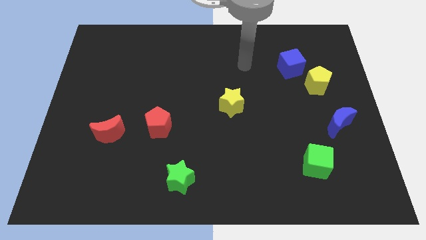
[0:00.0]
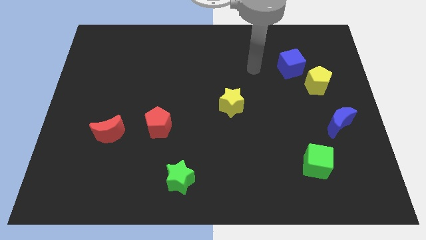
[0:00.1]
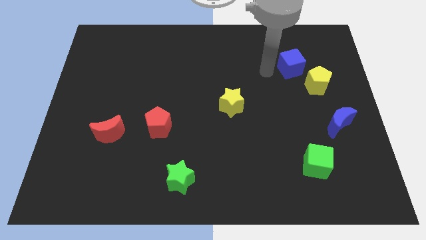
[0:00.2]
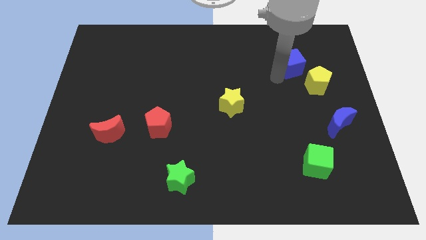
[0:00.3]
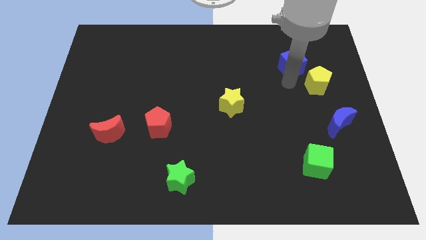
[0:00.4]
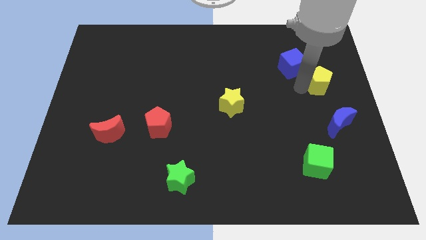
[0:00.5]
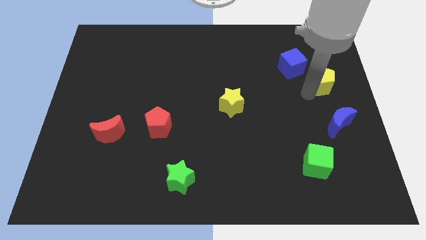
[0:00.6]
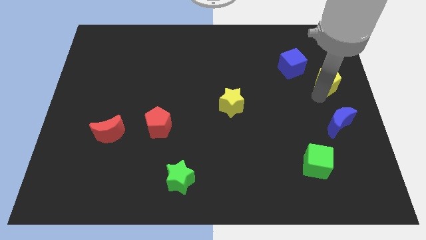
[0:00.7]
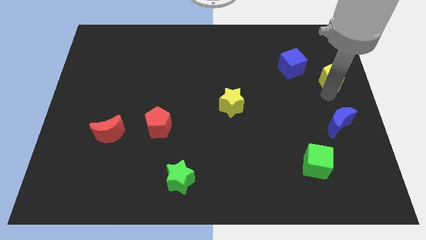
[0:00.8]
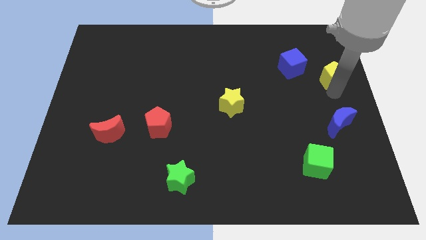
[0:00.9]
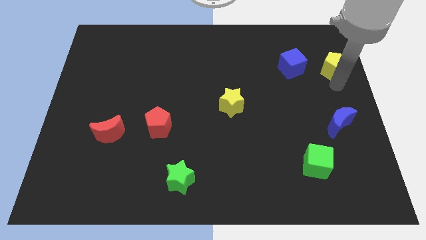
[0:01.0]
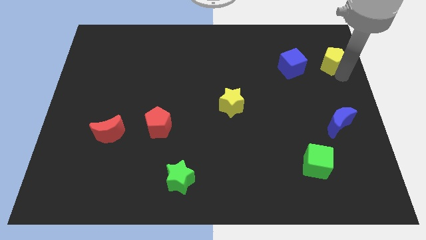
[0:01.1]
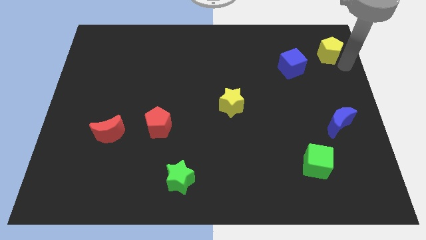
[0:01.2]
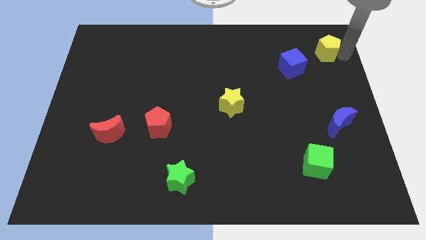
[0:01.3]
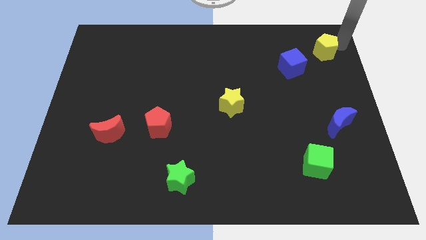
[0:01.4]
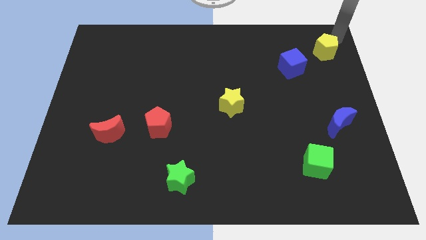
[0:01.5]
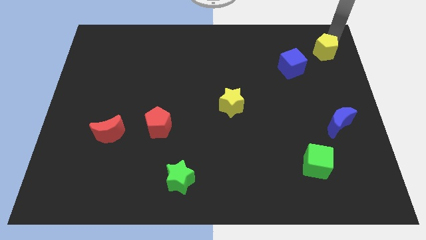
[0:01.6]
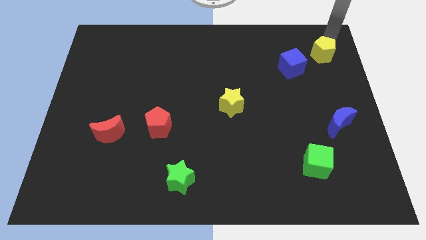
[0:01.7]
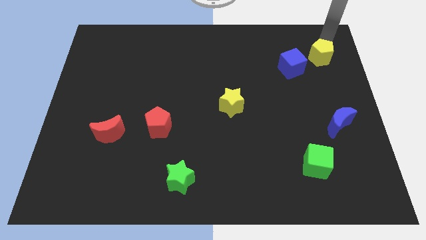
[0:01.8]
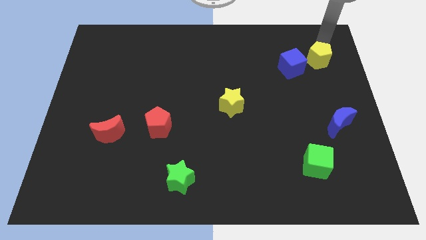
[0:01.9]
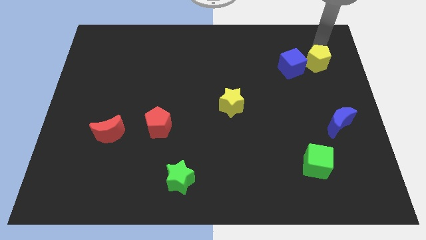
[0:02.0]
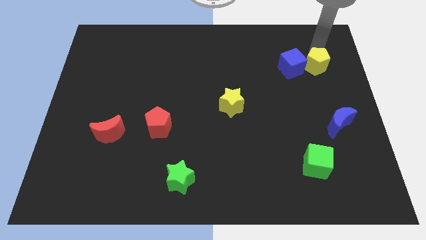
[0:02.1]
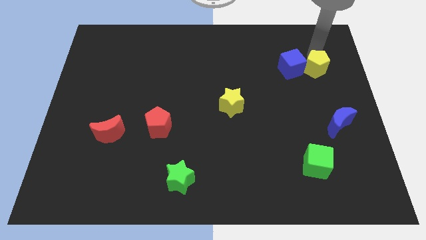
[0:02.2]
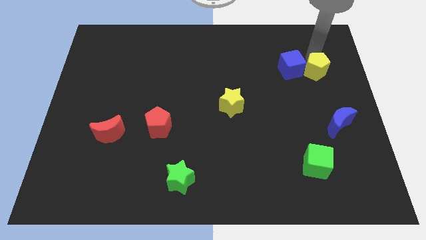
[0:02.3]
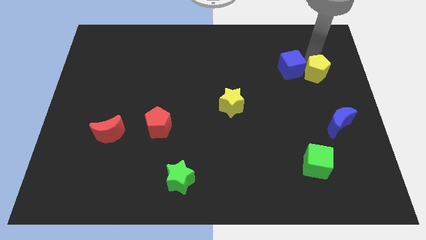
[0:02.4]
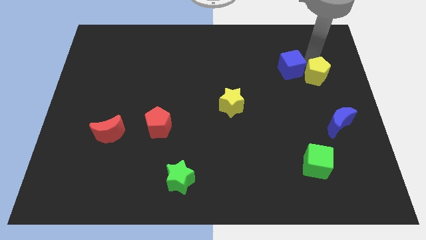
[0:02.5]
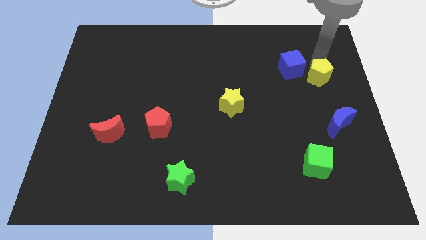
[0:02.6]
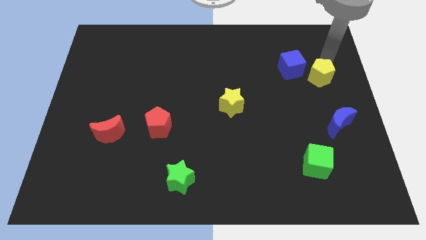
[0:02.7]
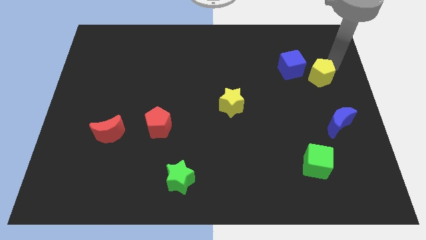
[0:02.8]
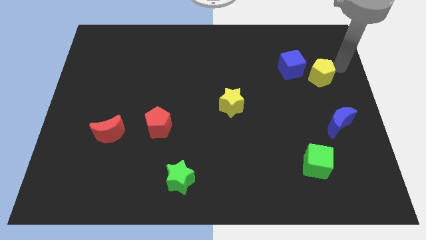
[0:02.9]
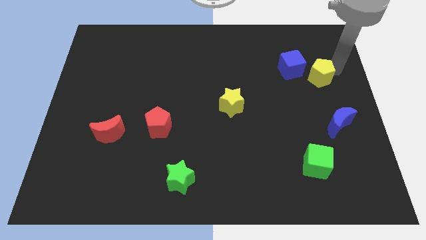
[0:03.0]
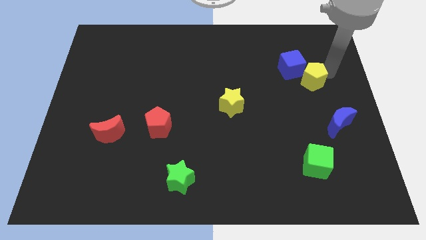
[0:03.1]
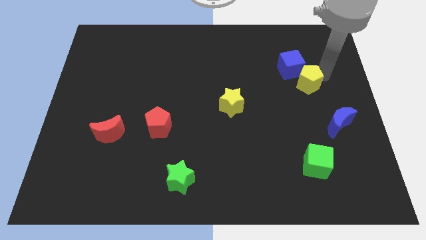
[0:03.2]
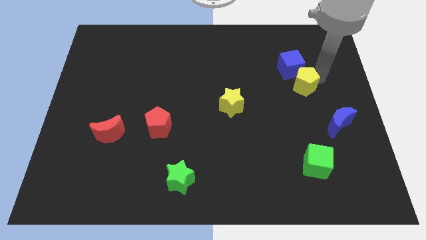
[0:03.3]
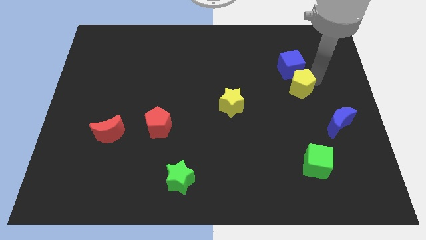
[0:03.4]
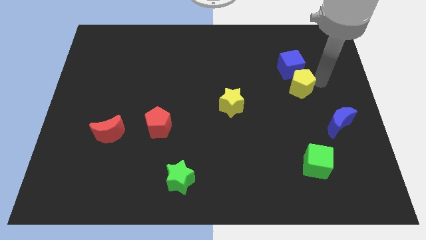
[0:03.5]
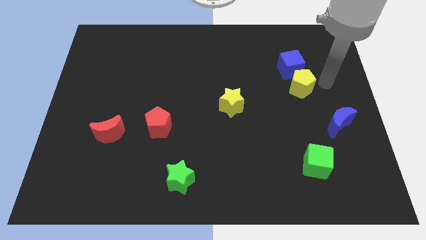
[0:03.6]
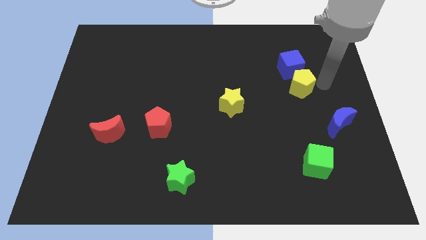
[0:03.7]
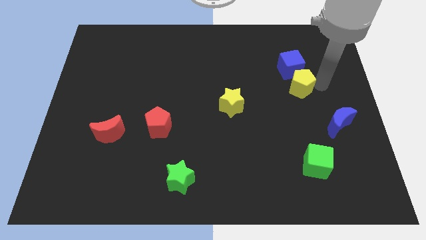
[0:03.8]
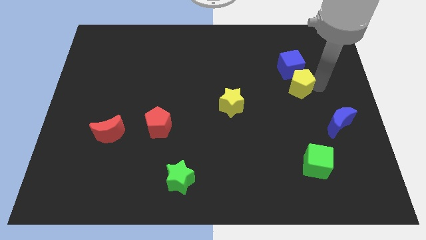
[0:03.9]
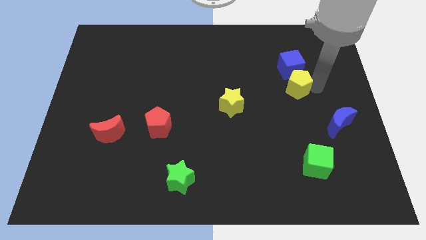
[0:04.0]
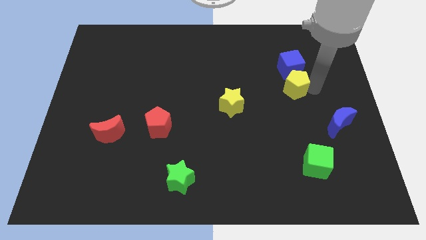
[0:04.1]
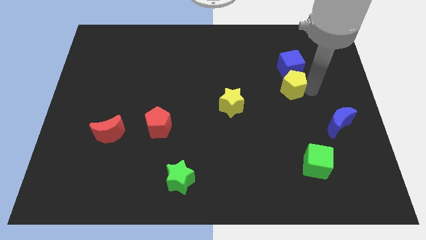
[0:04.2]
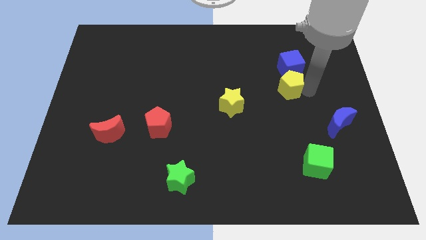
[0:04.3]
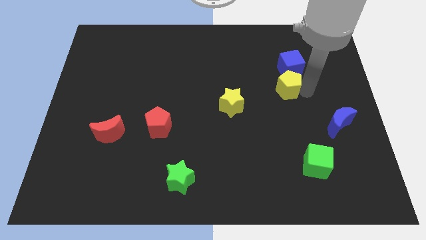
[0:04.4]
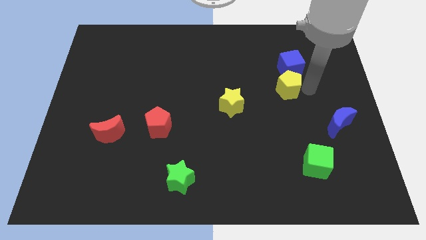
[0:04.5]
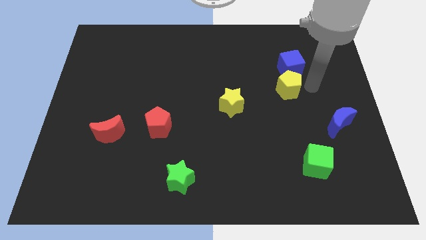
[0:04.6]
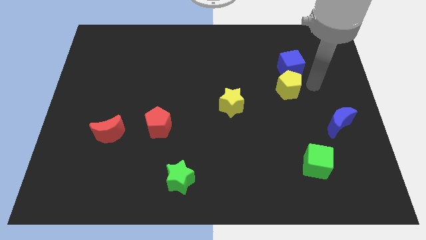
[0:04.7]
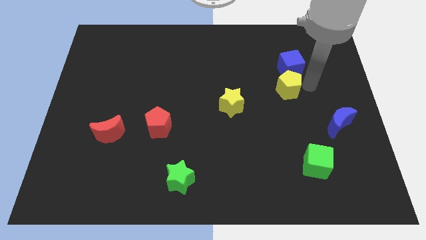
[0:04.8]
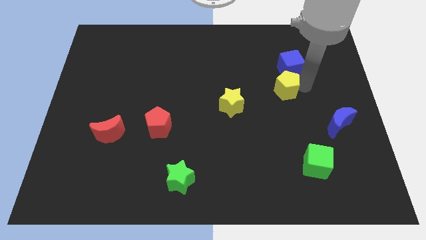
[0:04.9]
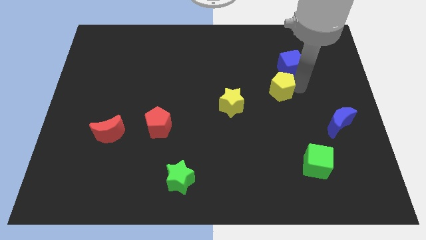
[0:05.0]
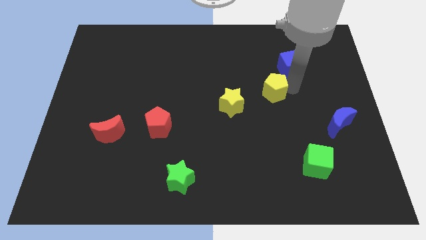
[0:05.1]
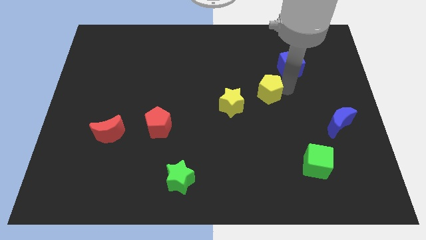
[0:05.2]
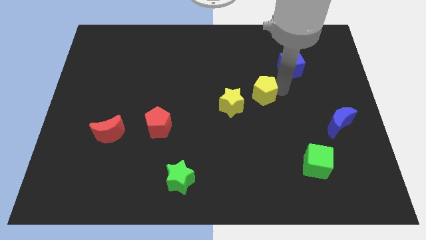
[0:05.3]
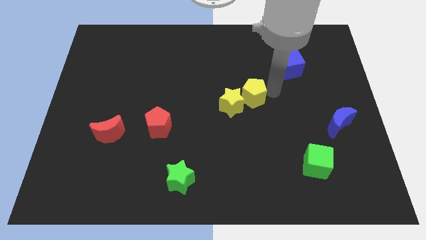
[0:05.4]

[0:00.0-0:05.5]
put the yellow pentagon next to the yellow star

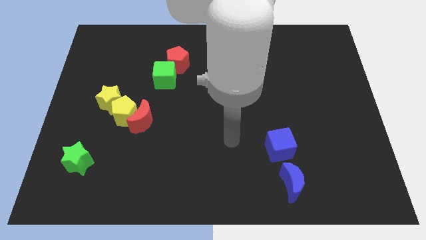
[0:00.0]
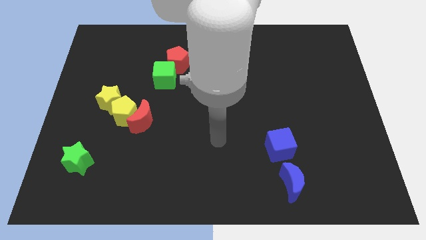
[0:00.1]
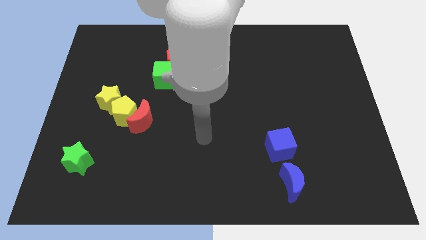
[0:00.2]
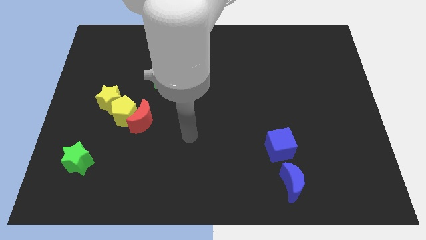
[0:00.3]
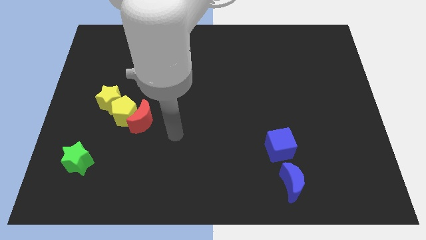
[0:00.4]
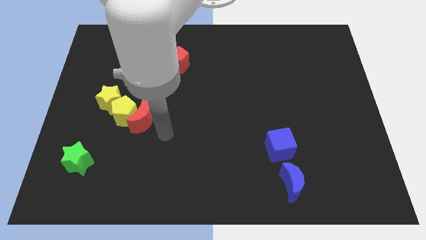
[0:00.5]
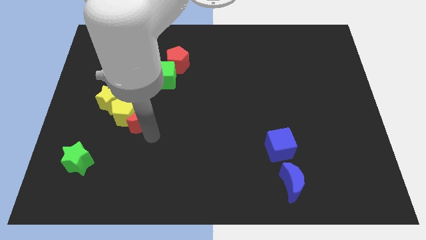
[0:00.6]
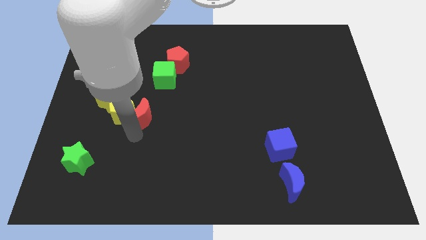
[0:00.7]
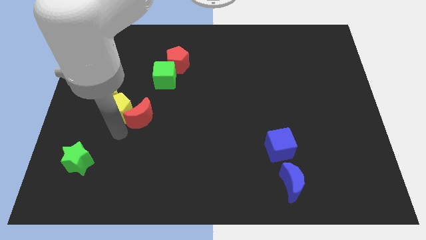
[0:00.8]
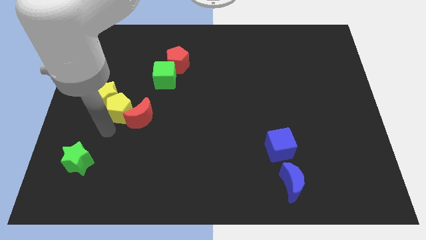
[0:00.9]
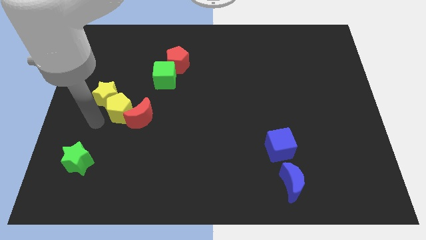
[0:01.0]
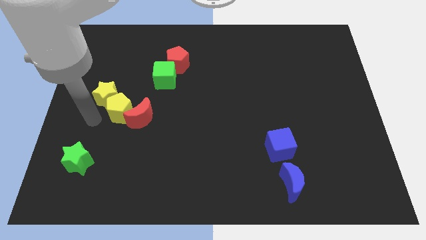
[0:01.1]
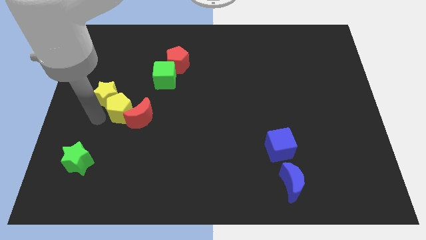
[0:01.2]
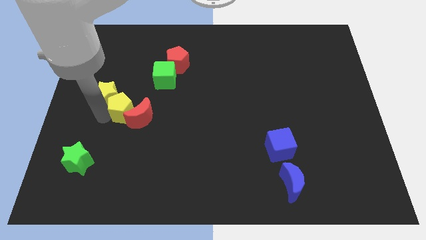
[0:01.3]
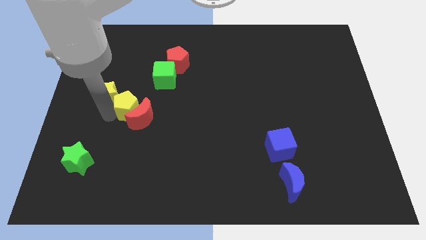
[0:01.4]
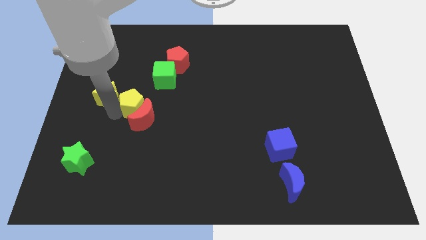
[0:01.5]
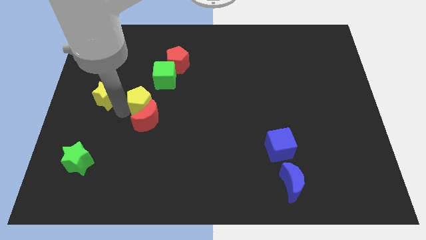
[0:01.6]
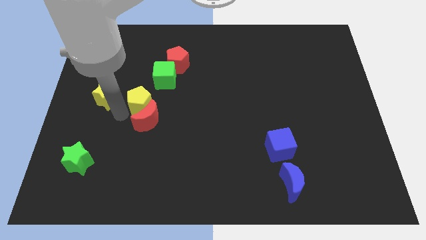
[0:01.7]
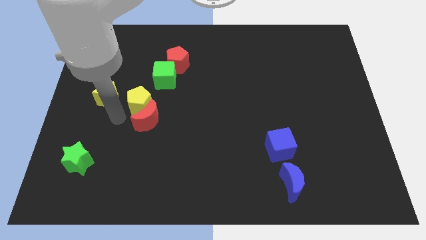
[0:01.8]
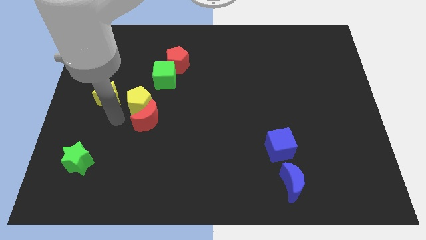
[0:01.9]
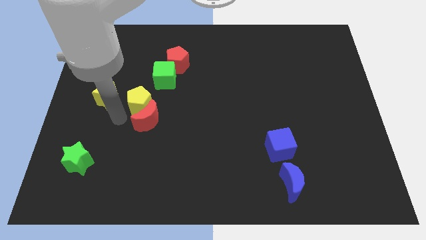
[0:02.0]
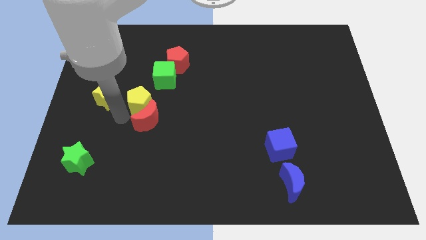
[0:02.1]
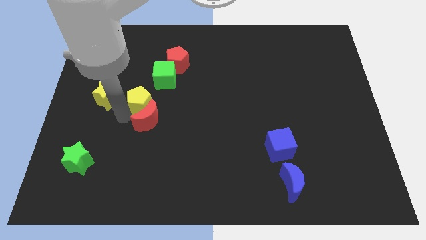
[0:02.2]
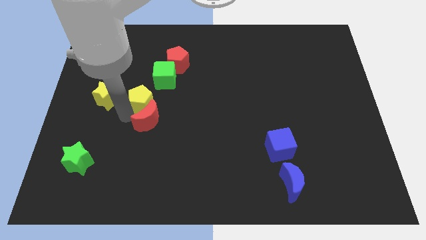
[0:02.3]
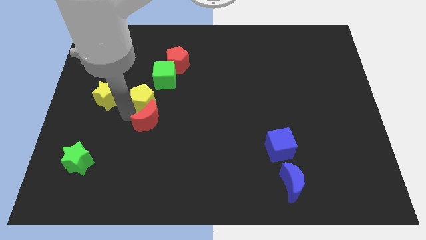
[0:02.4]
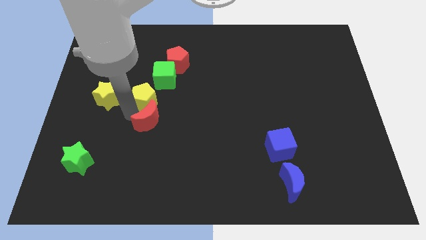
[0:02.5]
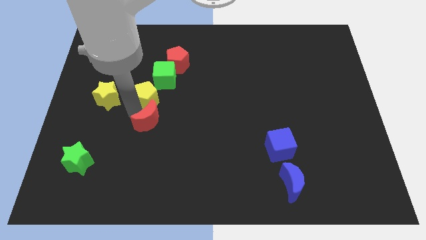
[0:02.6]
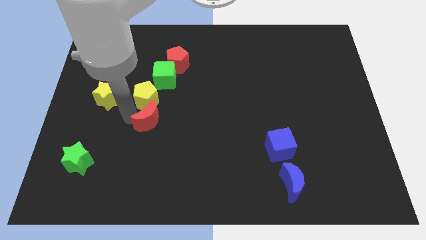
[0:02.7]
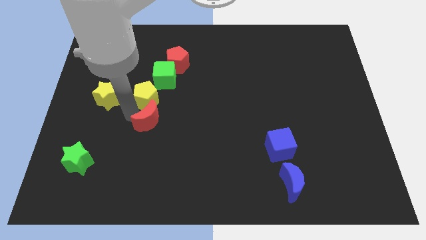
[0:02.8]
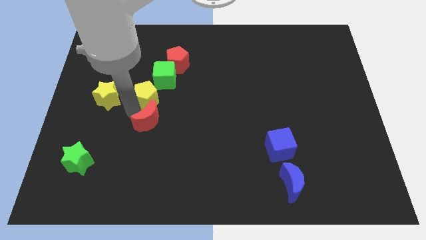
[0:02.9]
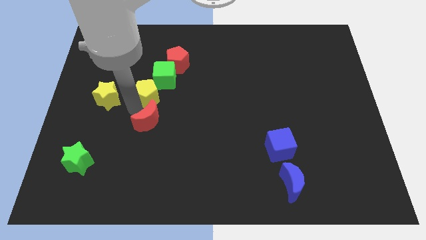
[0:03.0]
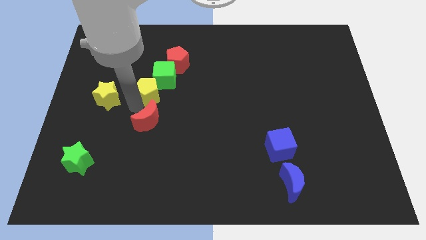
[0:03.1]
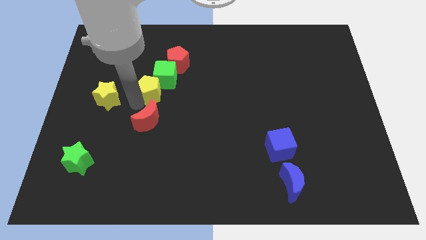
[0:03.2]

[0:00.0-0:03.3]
put the yellow pentagon next to the green cube
